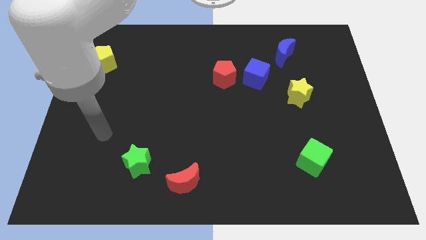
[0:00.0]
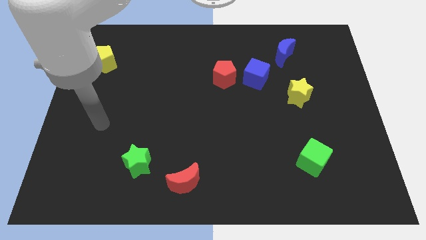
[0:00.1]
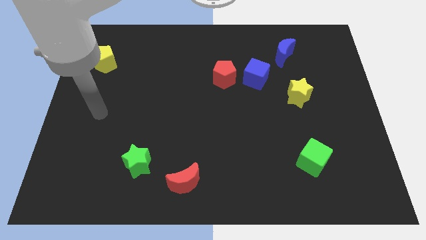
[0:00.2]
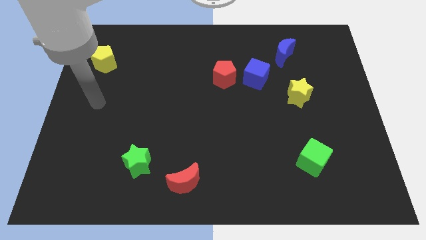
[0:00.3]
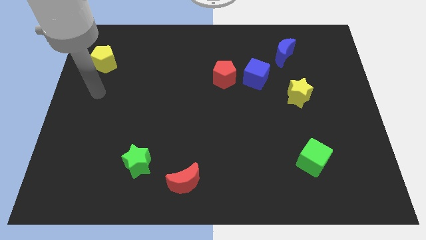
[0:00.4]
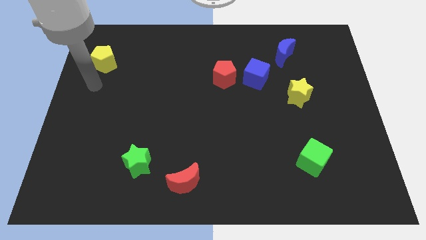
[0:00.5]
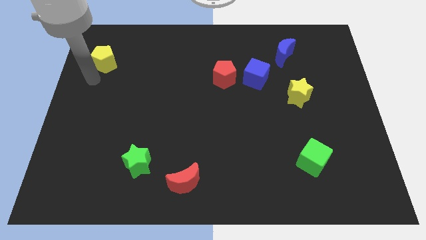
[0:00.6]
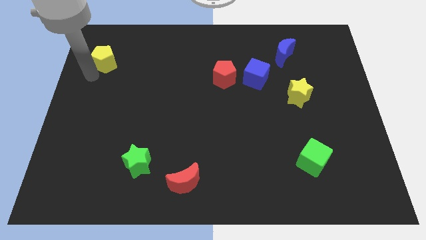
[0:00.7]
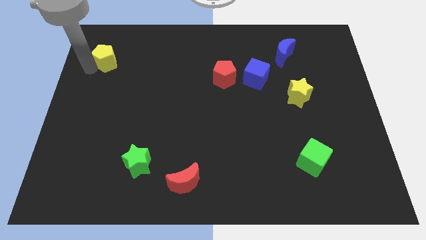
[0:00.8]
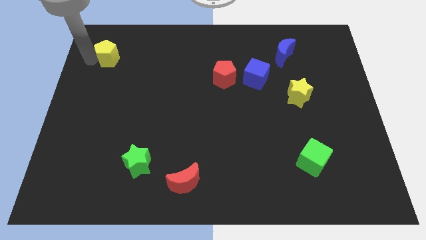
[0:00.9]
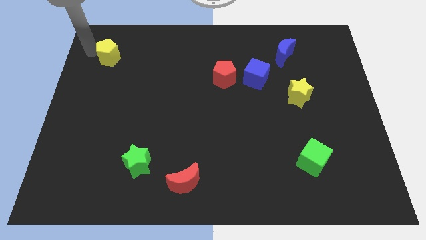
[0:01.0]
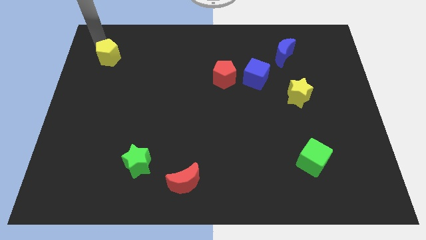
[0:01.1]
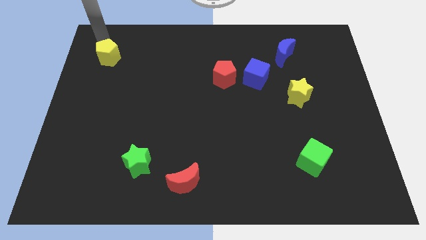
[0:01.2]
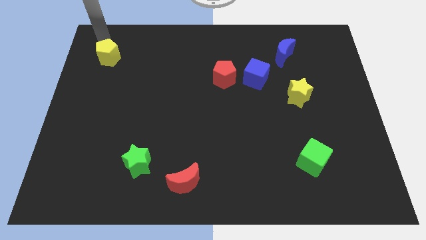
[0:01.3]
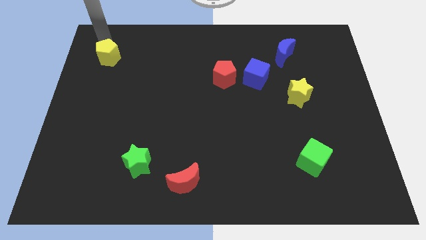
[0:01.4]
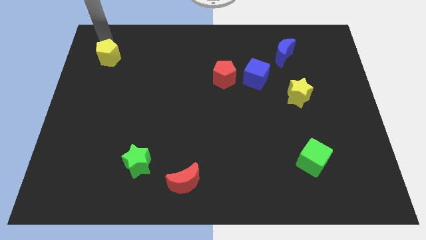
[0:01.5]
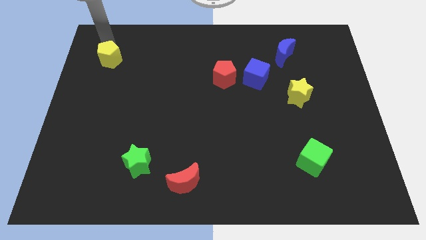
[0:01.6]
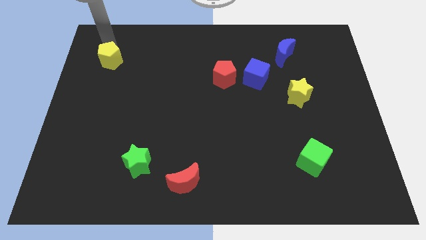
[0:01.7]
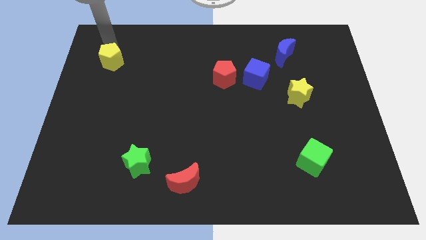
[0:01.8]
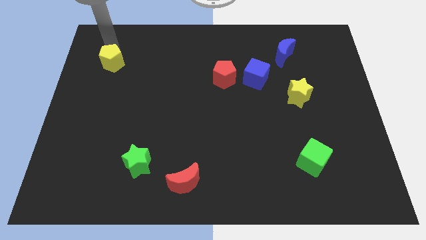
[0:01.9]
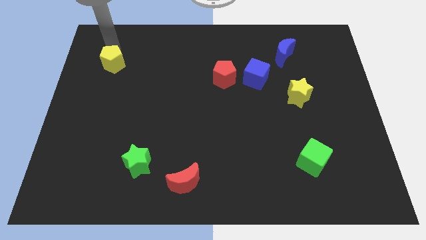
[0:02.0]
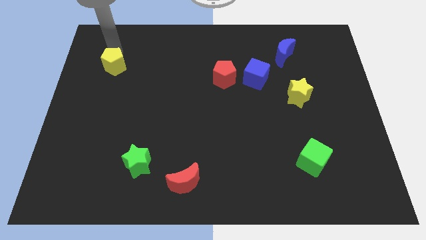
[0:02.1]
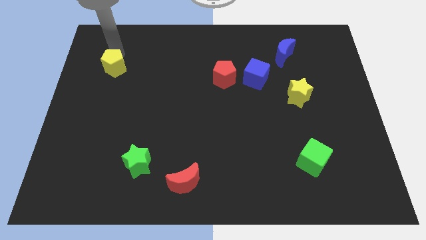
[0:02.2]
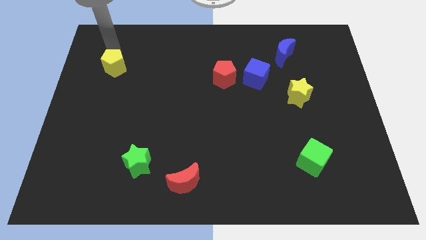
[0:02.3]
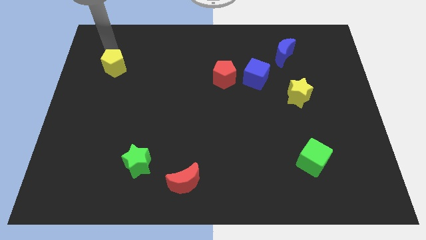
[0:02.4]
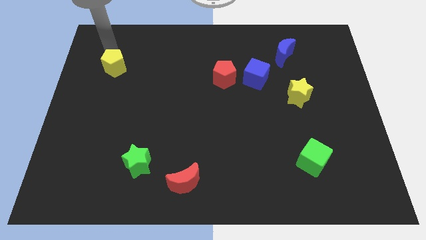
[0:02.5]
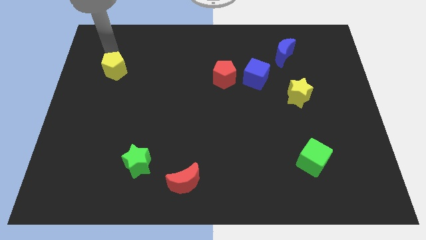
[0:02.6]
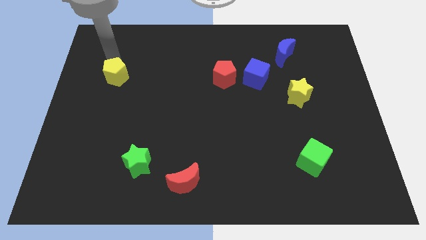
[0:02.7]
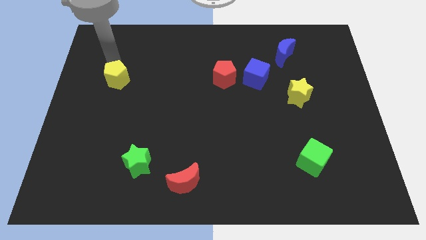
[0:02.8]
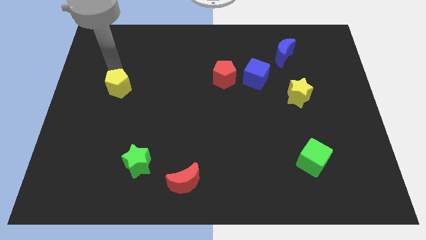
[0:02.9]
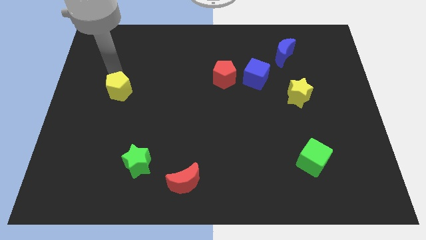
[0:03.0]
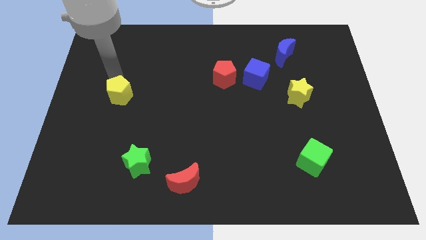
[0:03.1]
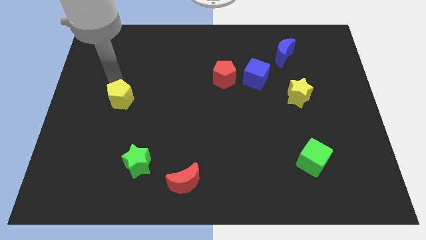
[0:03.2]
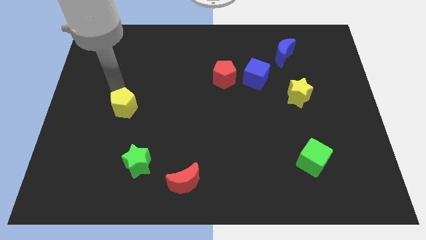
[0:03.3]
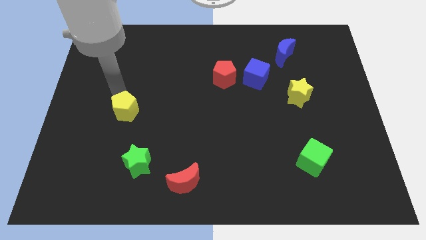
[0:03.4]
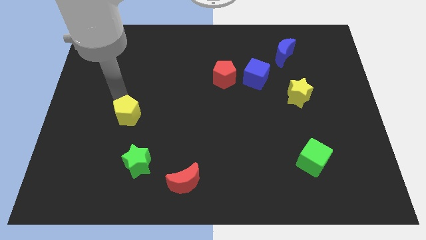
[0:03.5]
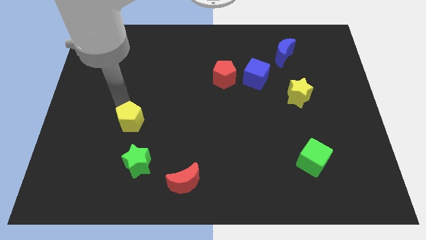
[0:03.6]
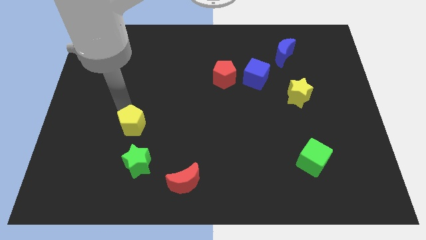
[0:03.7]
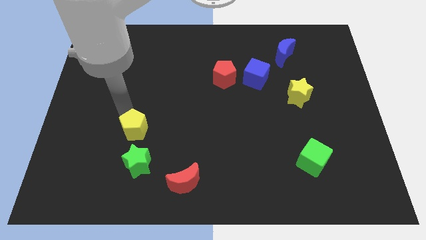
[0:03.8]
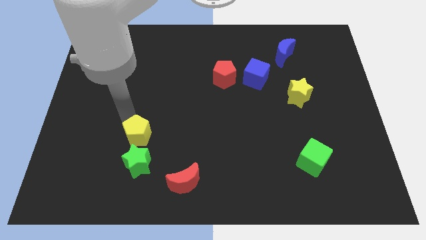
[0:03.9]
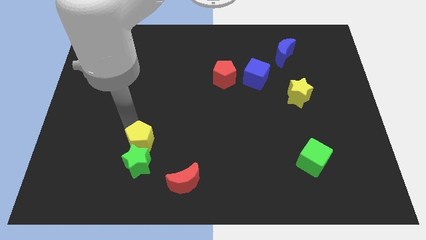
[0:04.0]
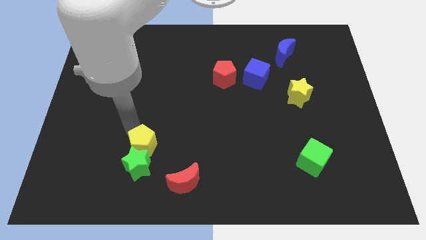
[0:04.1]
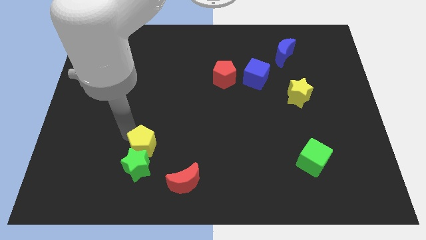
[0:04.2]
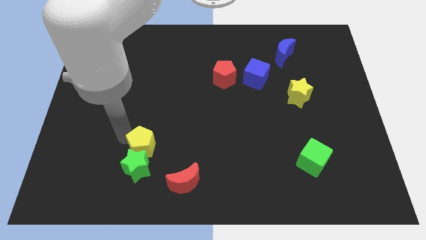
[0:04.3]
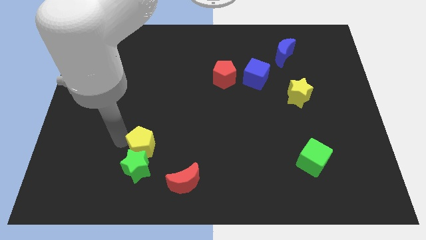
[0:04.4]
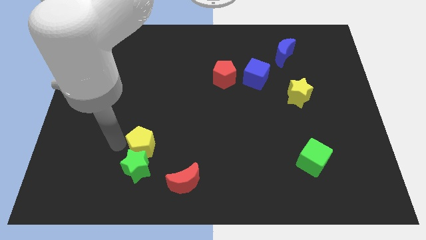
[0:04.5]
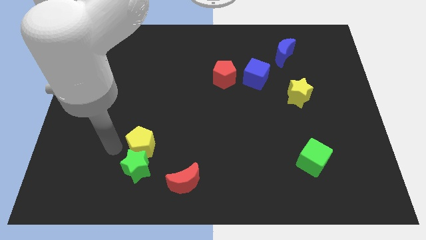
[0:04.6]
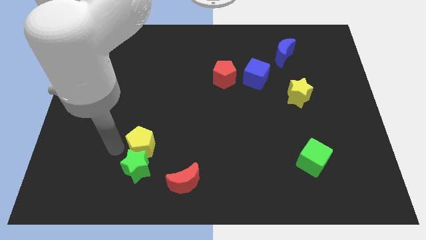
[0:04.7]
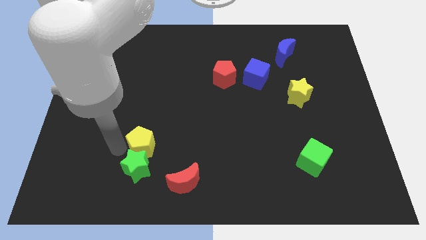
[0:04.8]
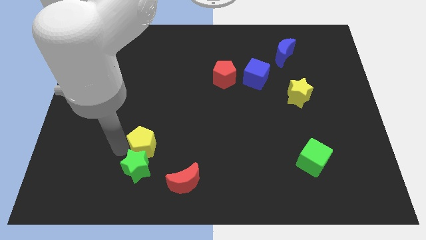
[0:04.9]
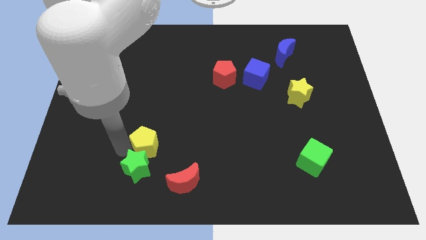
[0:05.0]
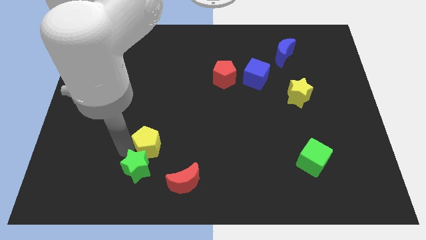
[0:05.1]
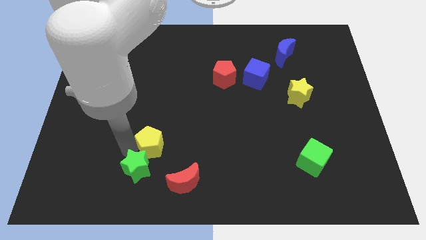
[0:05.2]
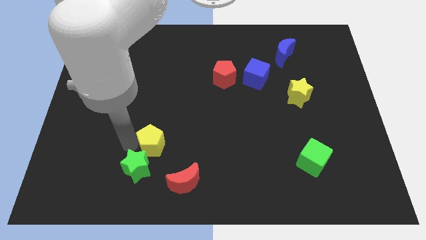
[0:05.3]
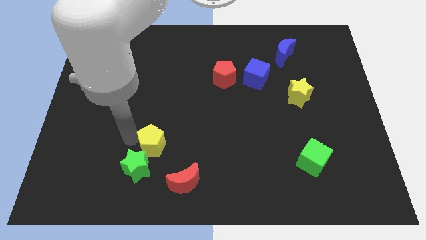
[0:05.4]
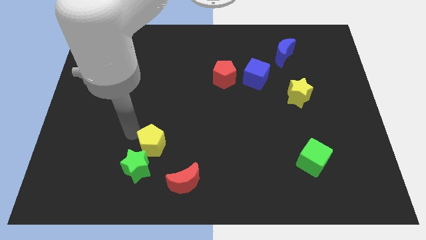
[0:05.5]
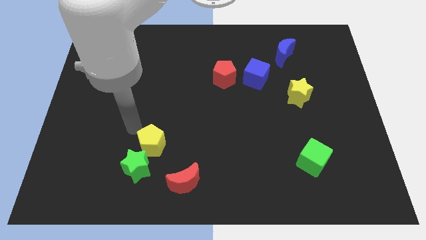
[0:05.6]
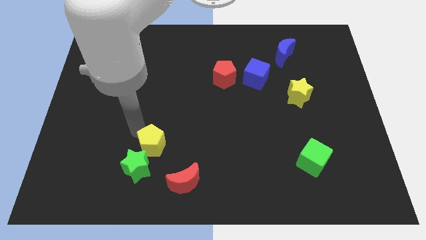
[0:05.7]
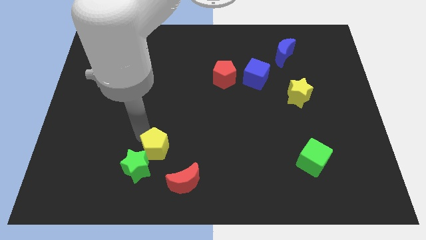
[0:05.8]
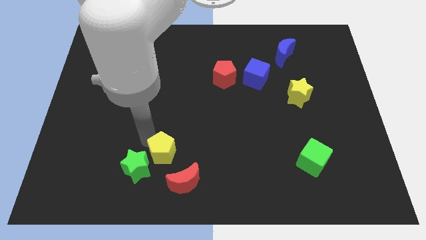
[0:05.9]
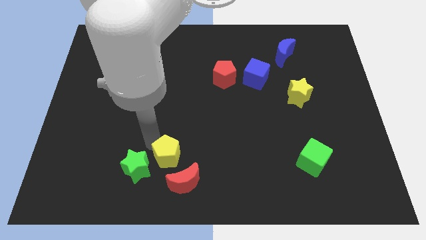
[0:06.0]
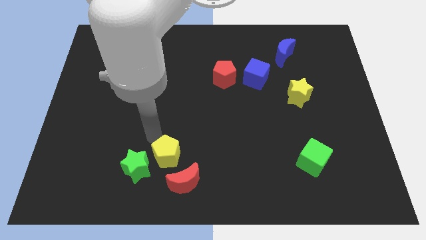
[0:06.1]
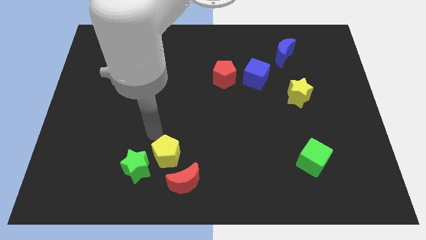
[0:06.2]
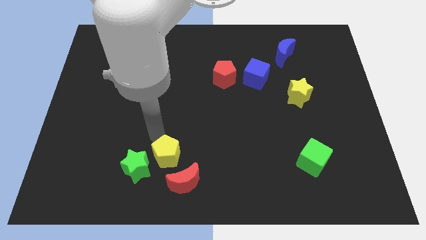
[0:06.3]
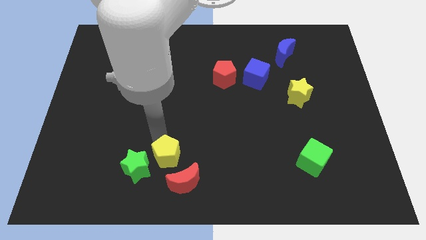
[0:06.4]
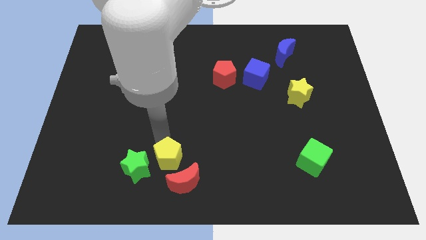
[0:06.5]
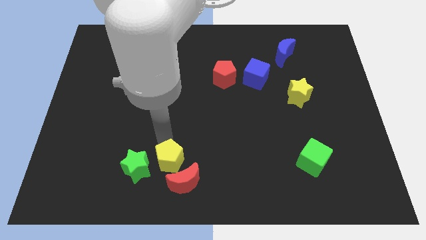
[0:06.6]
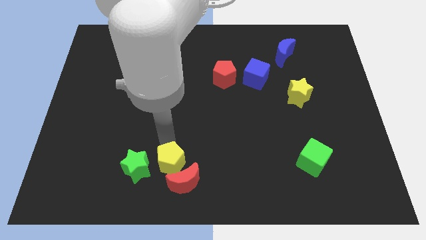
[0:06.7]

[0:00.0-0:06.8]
put the yellow pentagon close to the red moon

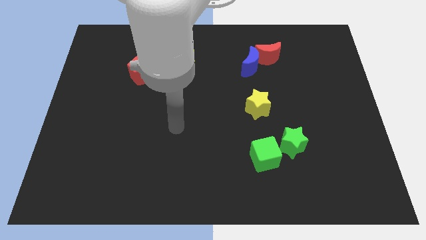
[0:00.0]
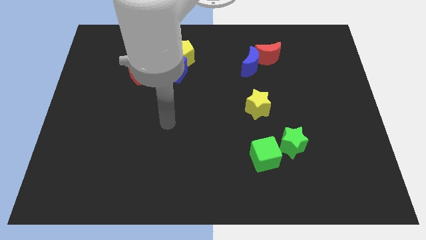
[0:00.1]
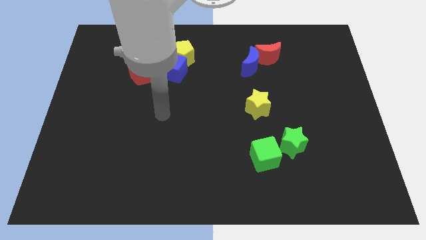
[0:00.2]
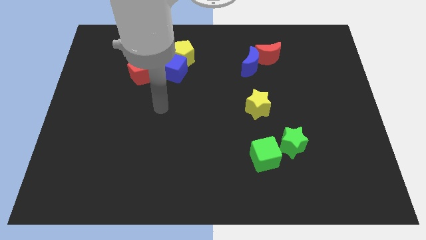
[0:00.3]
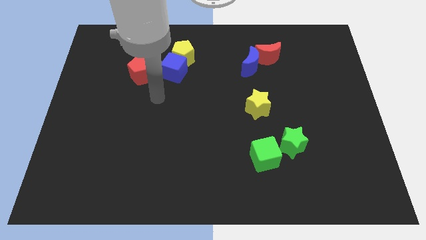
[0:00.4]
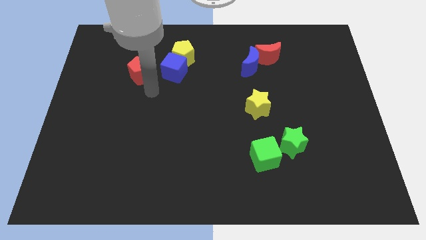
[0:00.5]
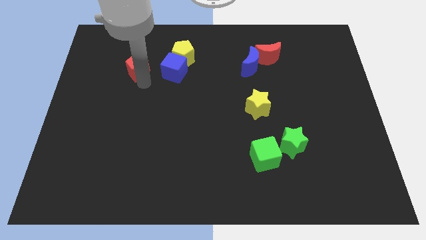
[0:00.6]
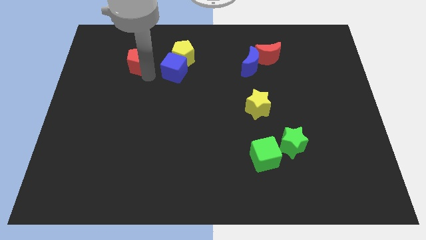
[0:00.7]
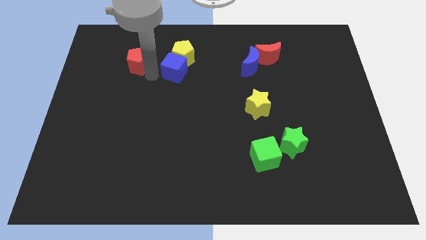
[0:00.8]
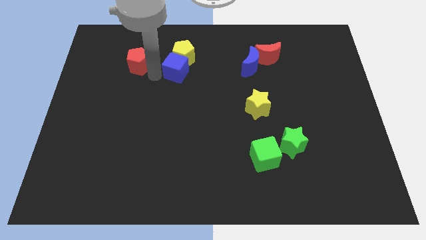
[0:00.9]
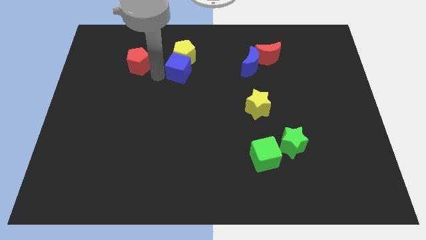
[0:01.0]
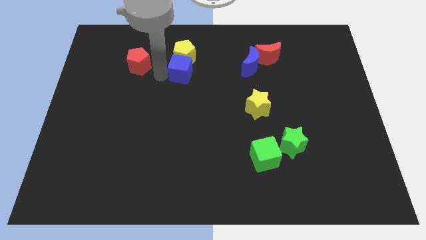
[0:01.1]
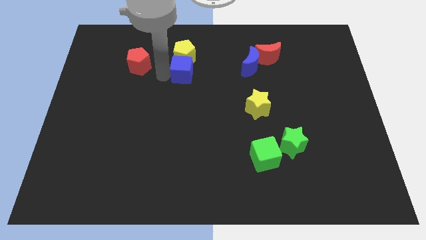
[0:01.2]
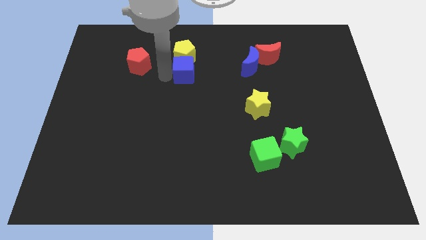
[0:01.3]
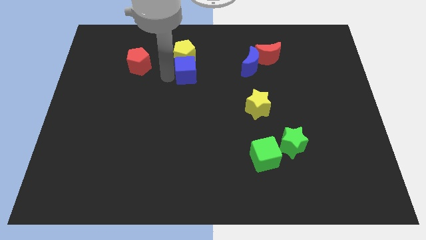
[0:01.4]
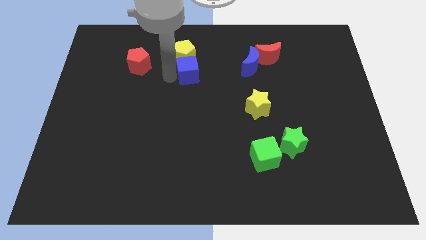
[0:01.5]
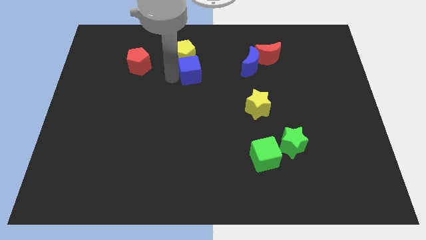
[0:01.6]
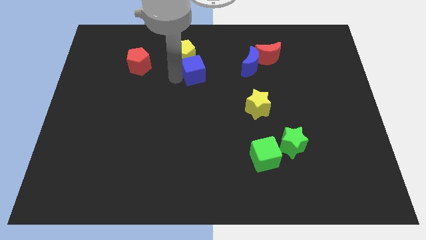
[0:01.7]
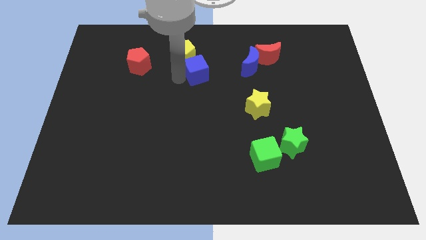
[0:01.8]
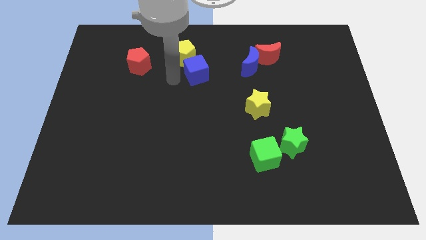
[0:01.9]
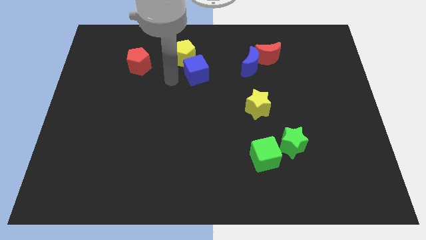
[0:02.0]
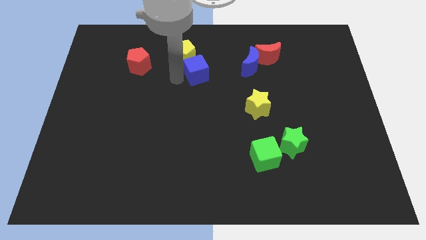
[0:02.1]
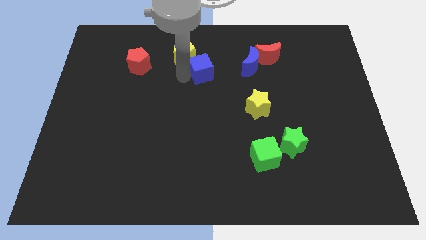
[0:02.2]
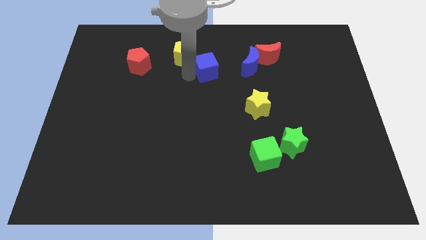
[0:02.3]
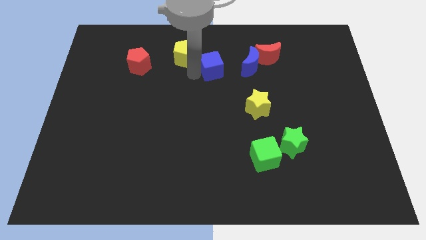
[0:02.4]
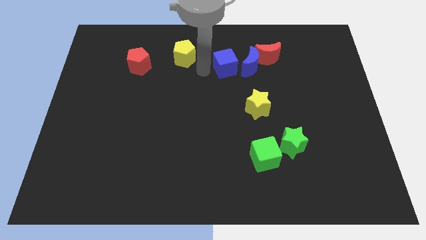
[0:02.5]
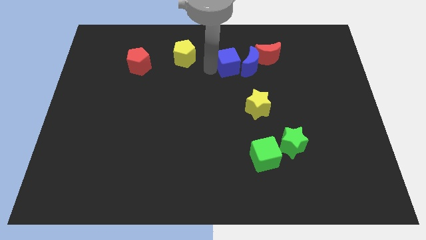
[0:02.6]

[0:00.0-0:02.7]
push the blue cube towards the blue moon
